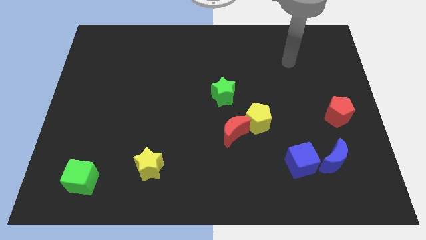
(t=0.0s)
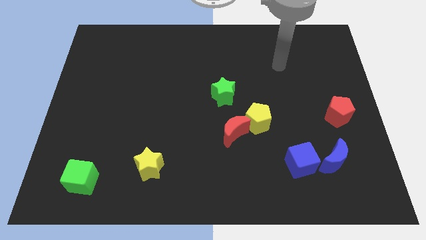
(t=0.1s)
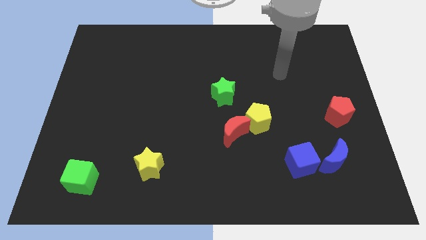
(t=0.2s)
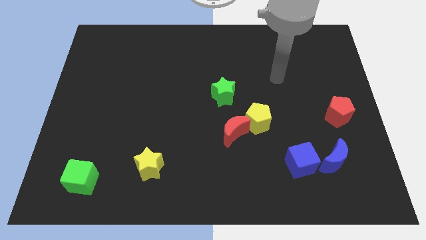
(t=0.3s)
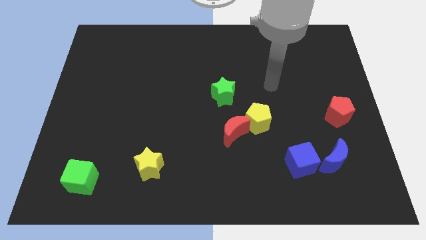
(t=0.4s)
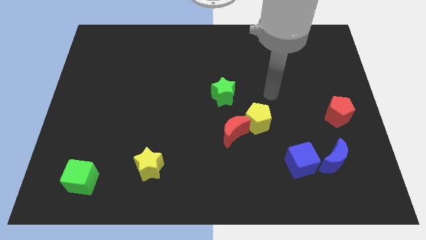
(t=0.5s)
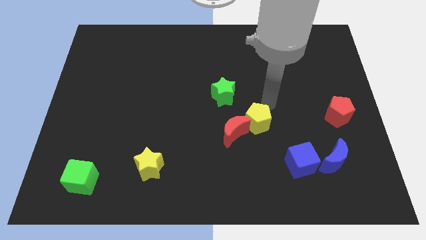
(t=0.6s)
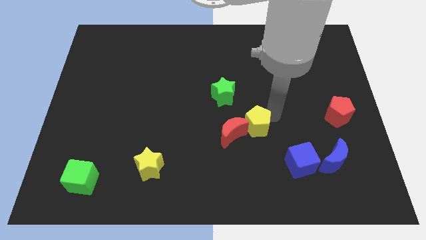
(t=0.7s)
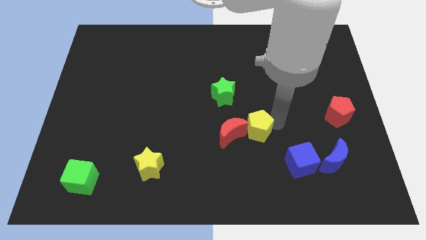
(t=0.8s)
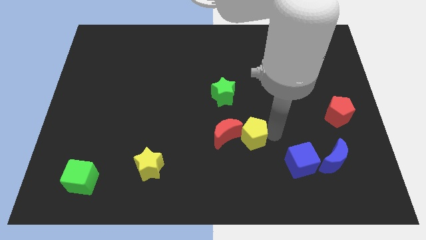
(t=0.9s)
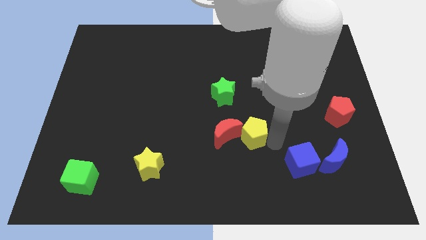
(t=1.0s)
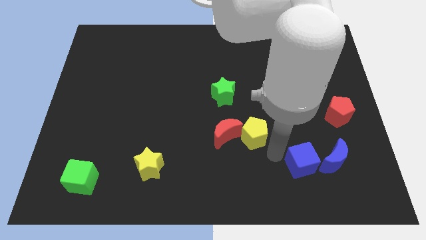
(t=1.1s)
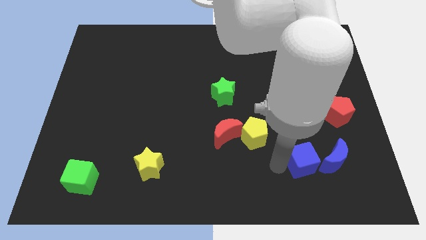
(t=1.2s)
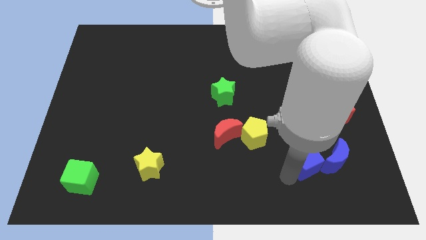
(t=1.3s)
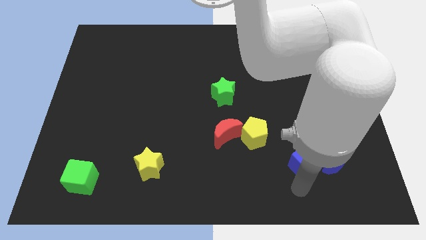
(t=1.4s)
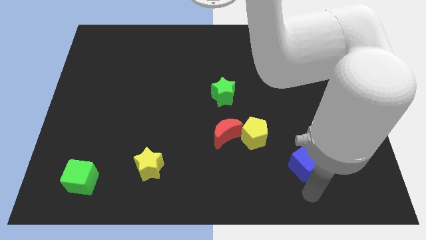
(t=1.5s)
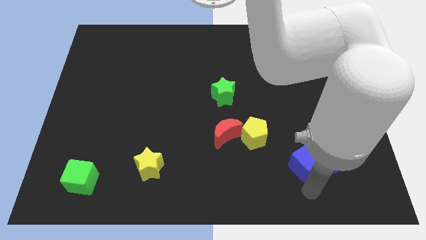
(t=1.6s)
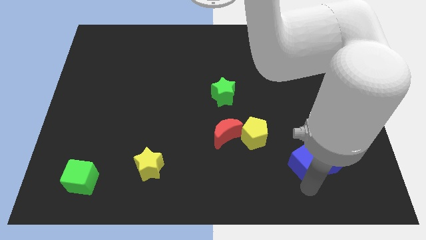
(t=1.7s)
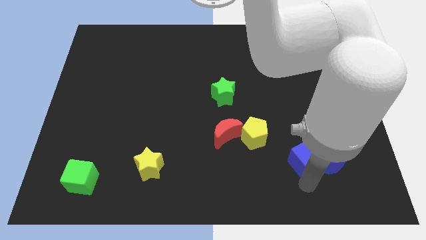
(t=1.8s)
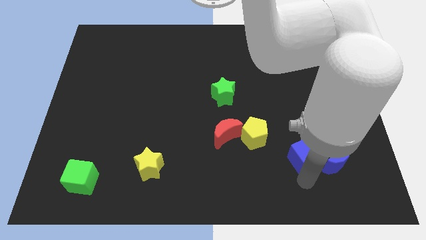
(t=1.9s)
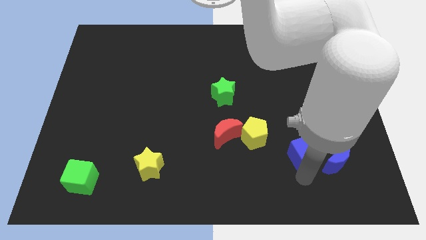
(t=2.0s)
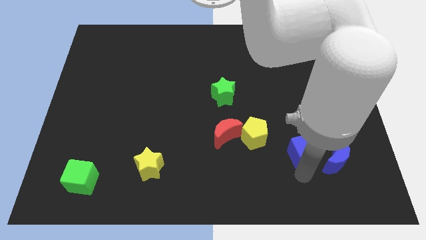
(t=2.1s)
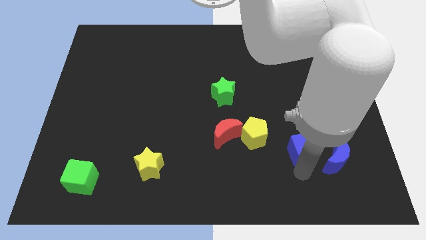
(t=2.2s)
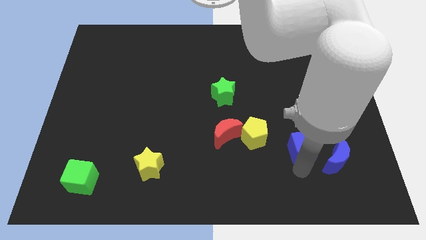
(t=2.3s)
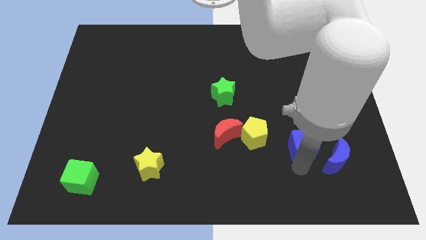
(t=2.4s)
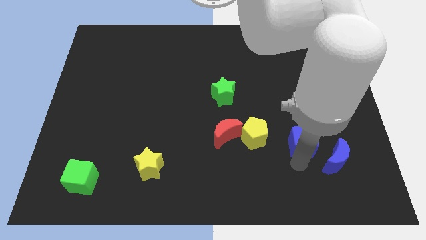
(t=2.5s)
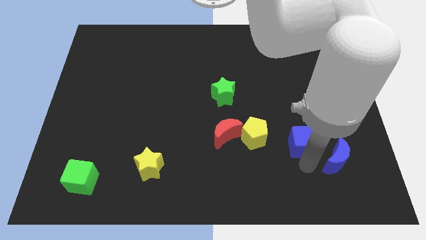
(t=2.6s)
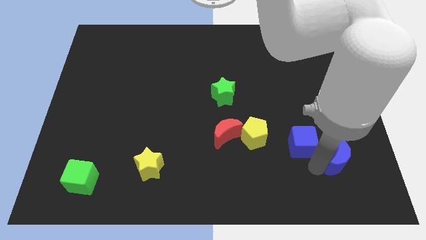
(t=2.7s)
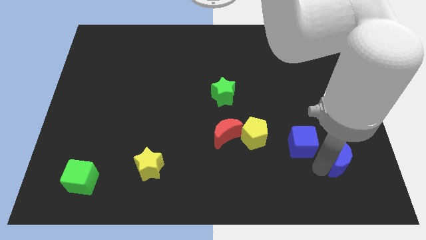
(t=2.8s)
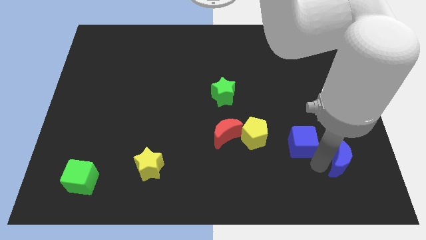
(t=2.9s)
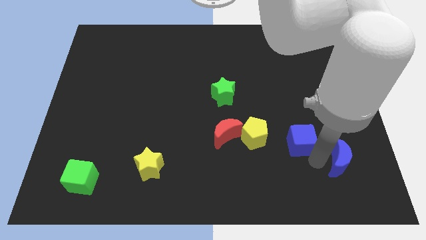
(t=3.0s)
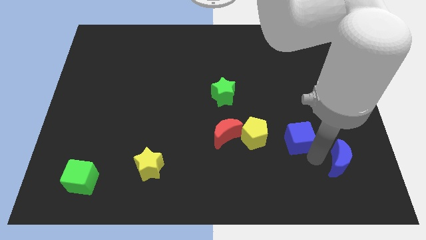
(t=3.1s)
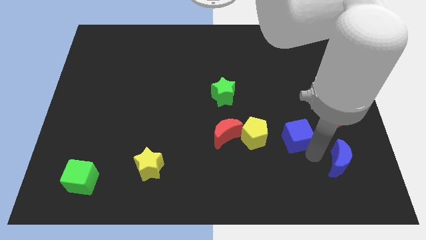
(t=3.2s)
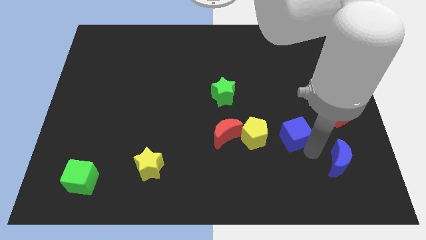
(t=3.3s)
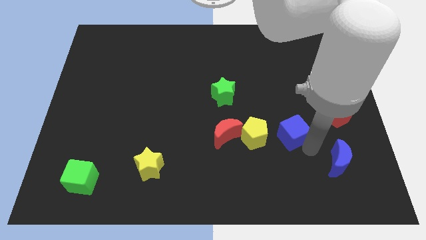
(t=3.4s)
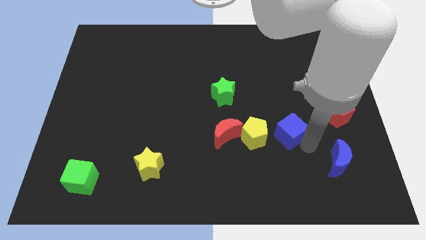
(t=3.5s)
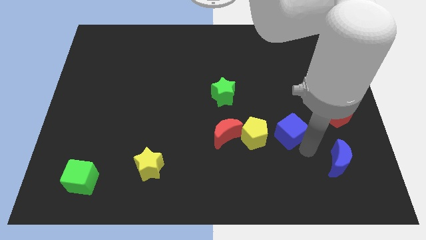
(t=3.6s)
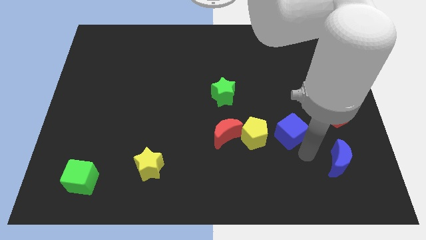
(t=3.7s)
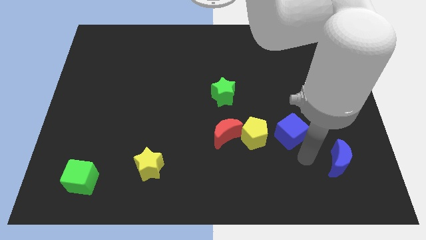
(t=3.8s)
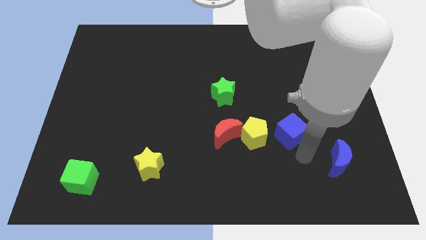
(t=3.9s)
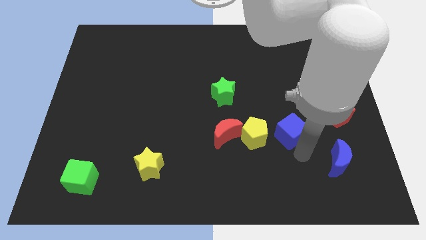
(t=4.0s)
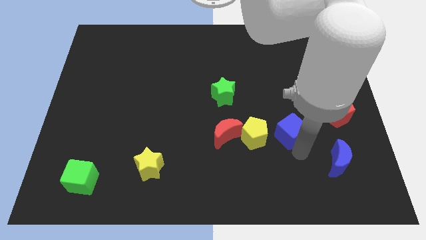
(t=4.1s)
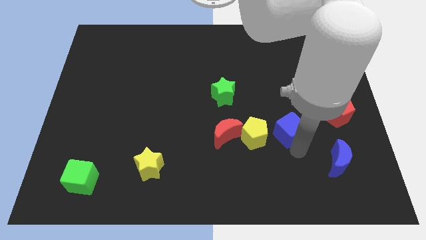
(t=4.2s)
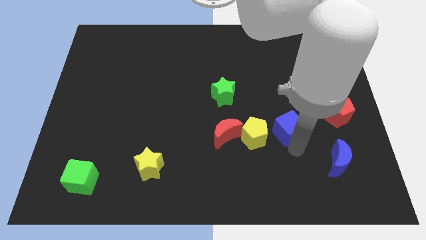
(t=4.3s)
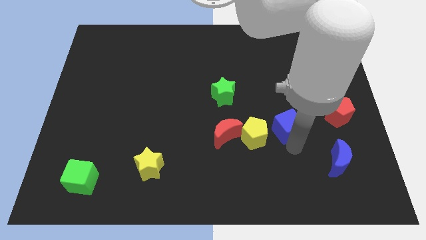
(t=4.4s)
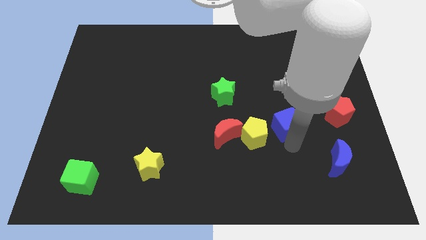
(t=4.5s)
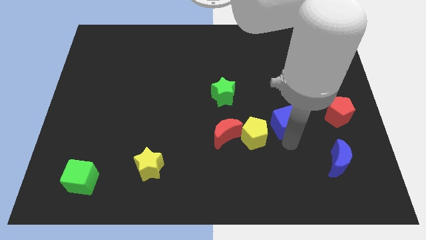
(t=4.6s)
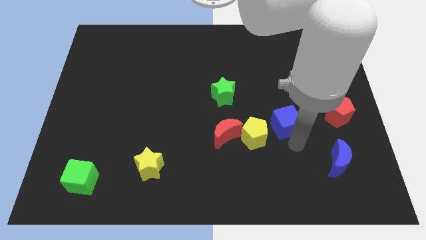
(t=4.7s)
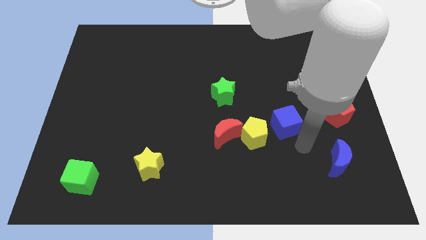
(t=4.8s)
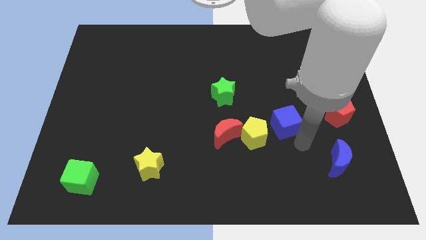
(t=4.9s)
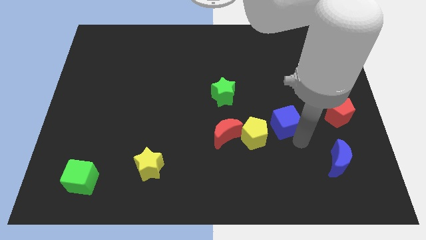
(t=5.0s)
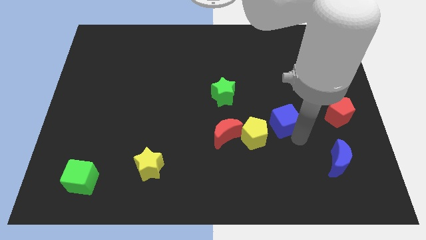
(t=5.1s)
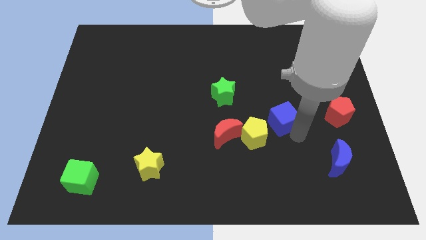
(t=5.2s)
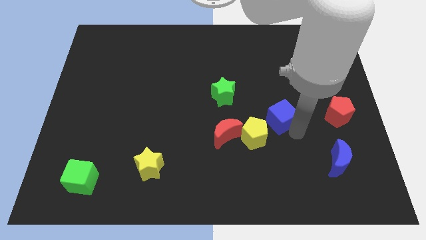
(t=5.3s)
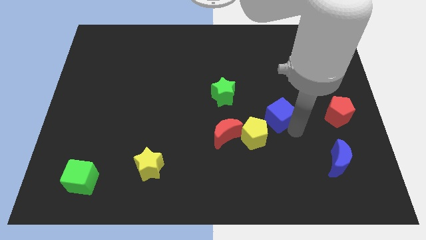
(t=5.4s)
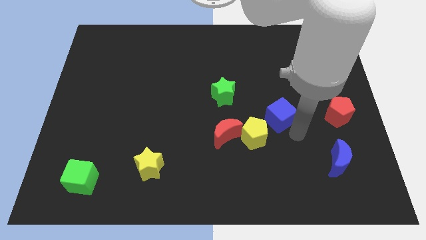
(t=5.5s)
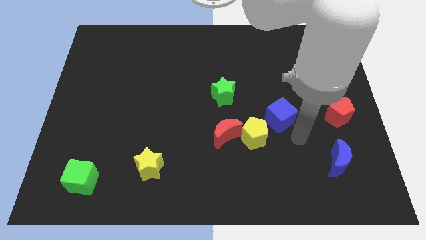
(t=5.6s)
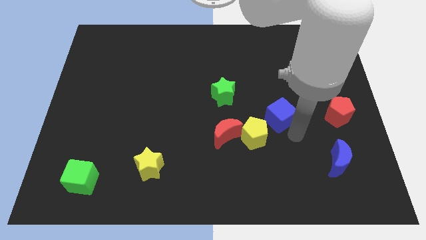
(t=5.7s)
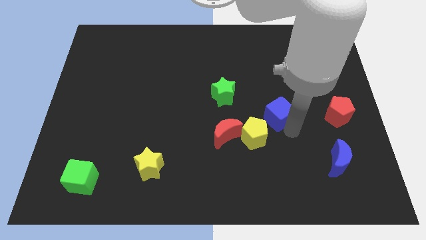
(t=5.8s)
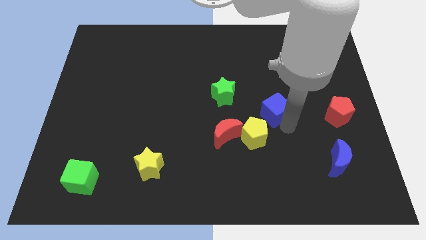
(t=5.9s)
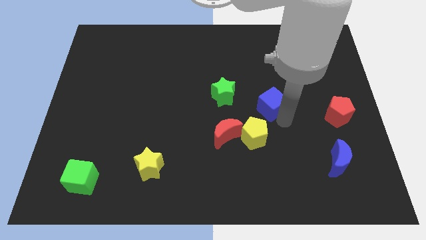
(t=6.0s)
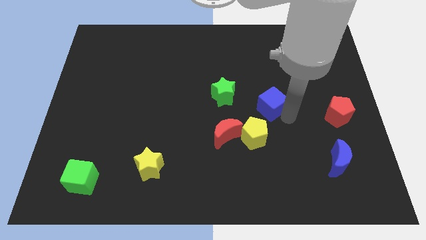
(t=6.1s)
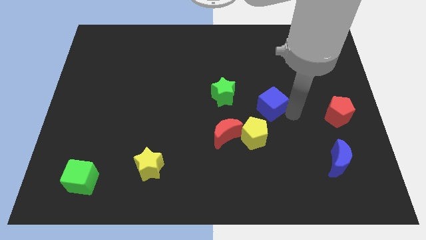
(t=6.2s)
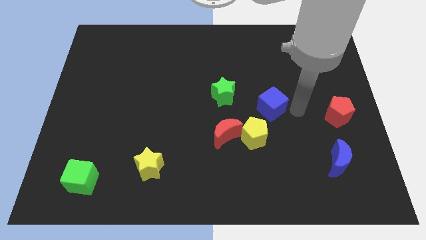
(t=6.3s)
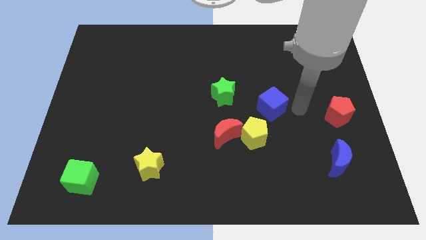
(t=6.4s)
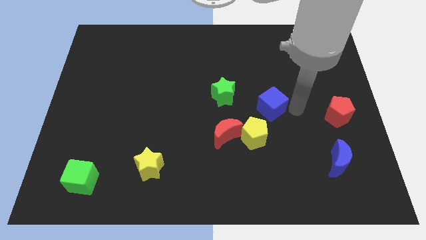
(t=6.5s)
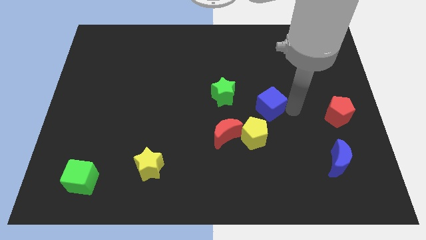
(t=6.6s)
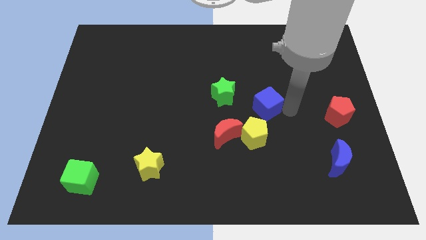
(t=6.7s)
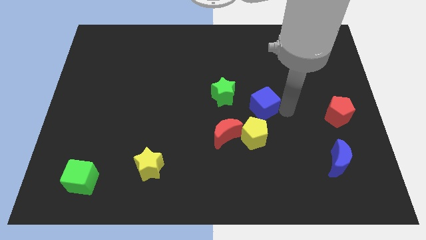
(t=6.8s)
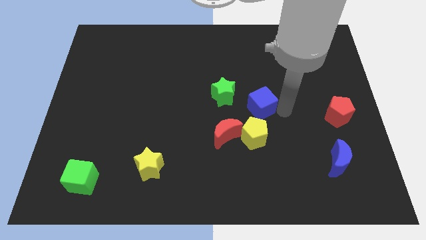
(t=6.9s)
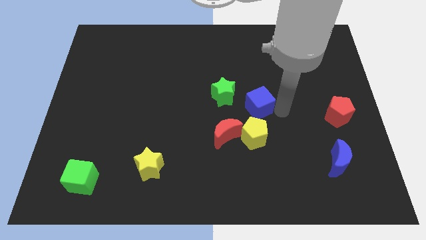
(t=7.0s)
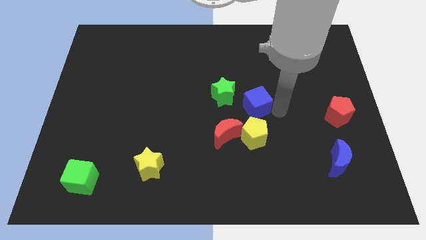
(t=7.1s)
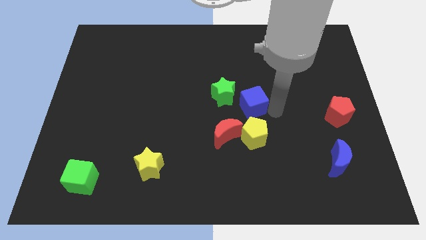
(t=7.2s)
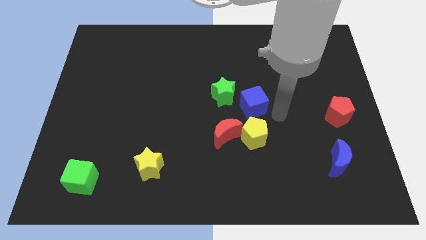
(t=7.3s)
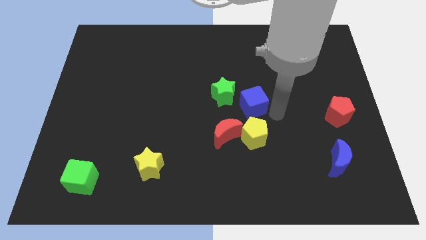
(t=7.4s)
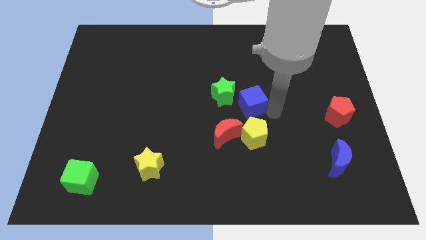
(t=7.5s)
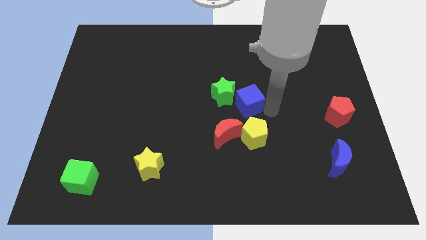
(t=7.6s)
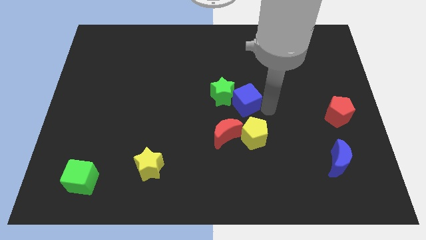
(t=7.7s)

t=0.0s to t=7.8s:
move the blue cube towards the green star
